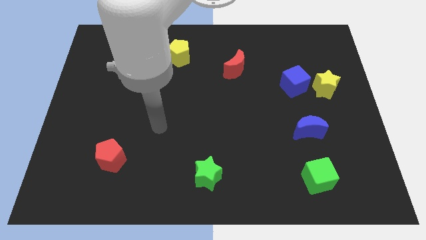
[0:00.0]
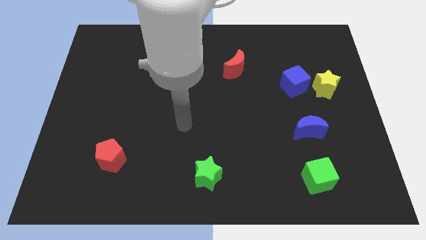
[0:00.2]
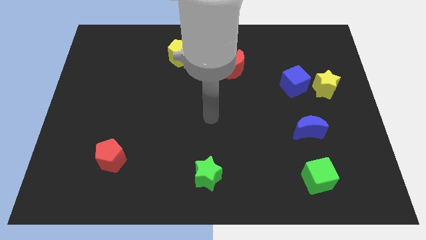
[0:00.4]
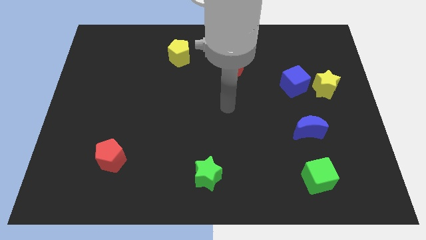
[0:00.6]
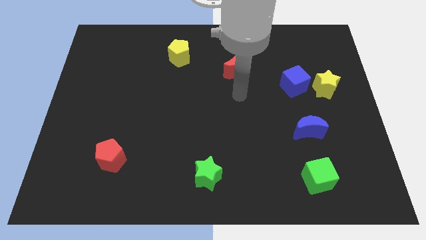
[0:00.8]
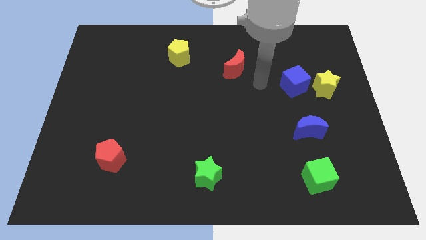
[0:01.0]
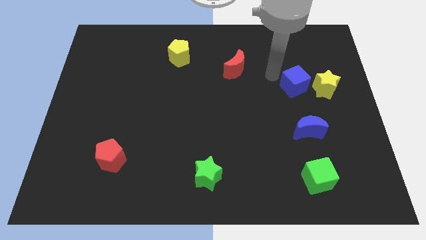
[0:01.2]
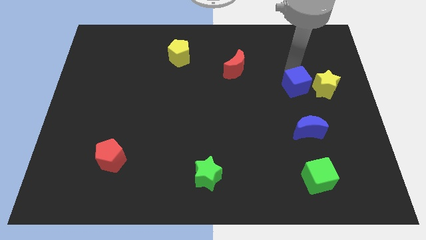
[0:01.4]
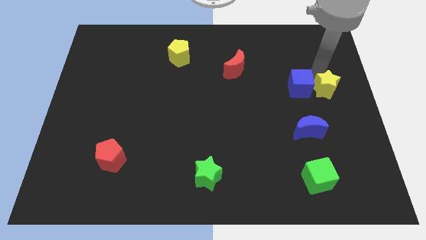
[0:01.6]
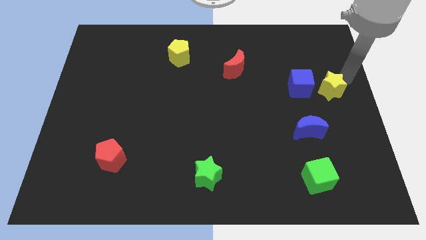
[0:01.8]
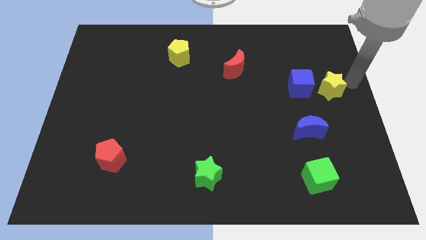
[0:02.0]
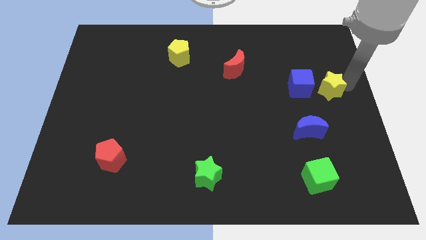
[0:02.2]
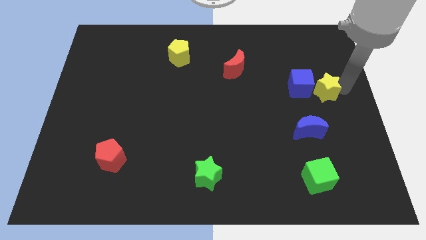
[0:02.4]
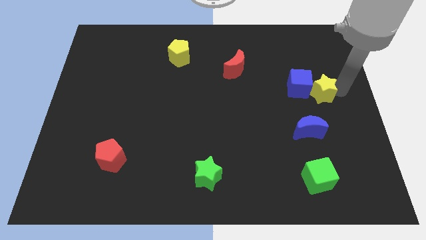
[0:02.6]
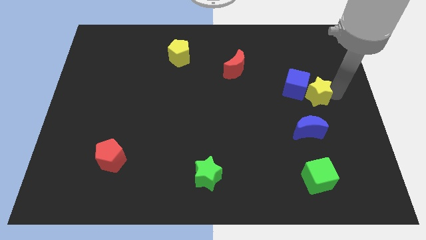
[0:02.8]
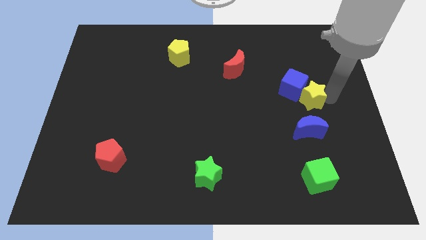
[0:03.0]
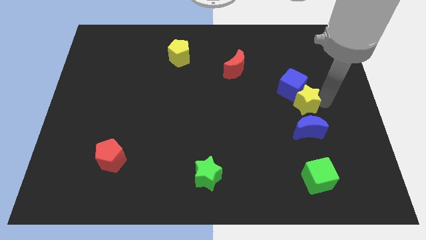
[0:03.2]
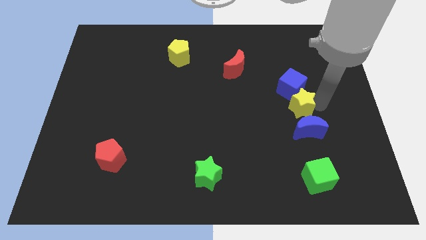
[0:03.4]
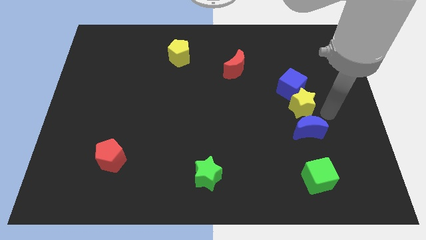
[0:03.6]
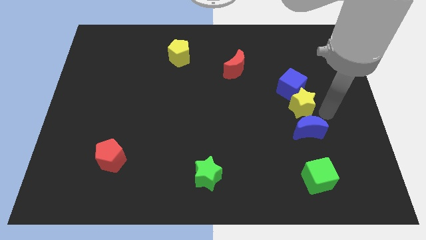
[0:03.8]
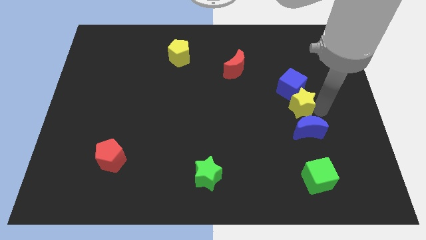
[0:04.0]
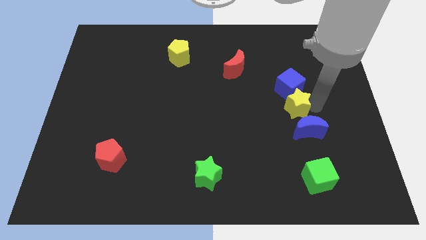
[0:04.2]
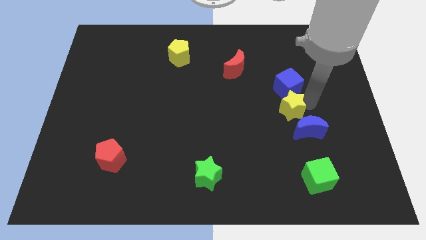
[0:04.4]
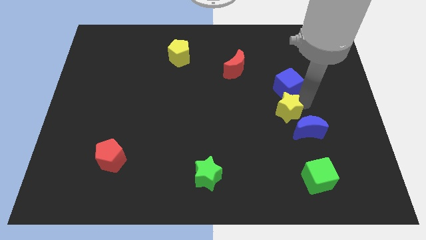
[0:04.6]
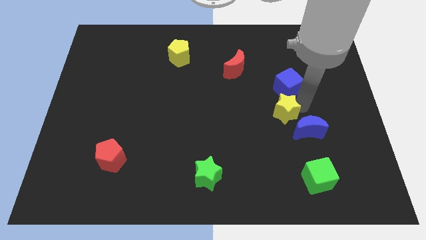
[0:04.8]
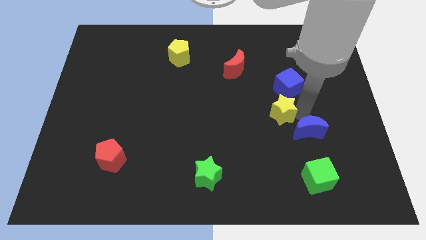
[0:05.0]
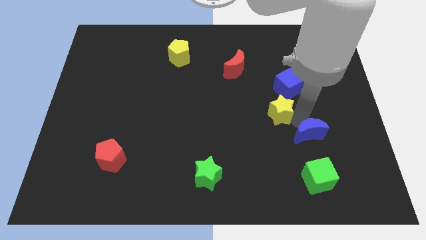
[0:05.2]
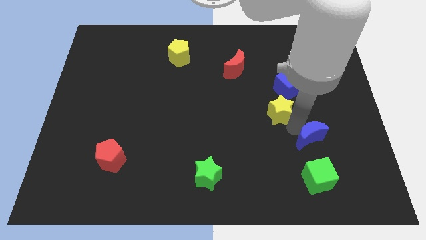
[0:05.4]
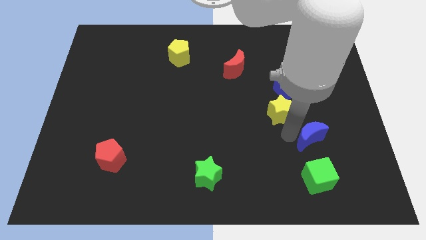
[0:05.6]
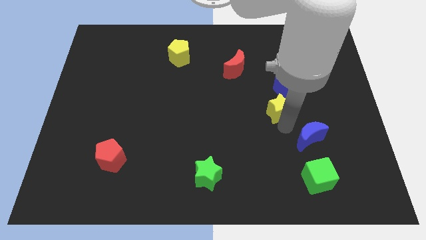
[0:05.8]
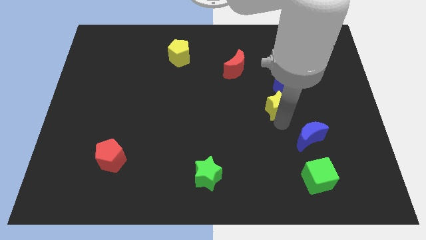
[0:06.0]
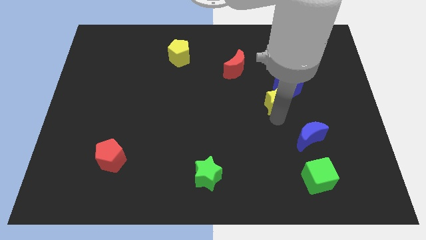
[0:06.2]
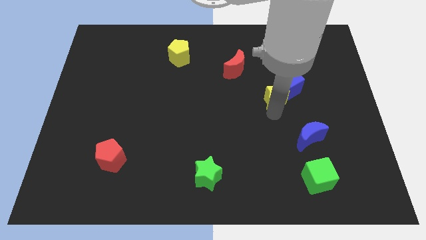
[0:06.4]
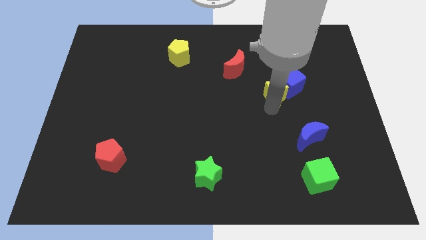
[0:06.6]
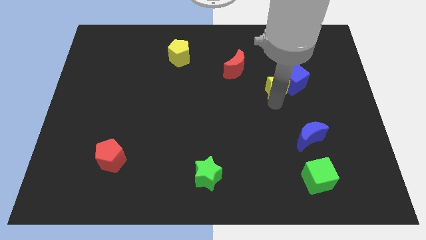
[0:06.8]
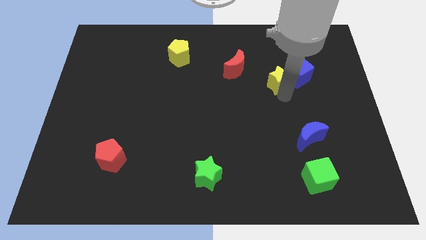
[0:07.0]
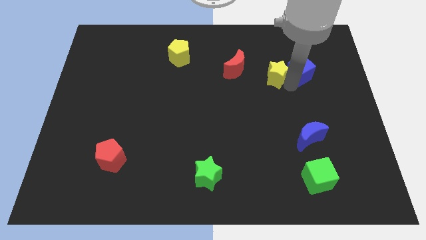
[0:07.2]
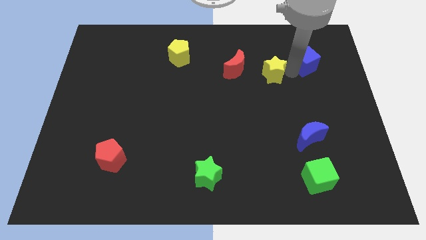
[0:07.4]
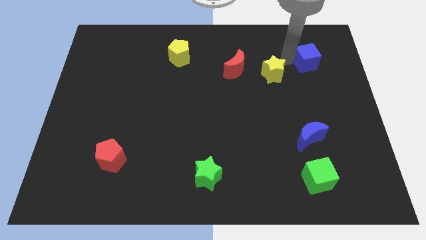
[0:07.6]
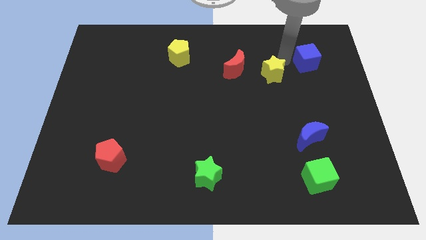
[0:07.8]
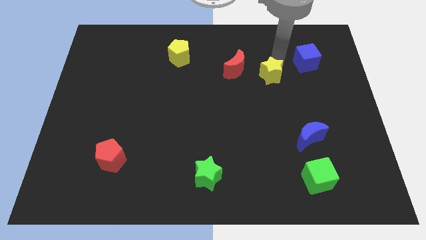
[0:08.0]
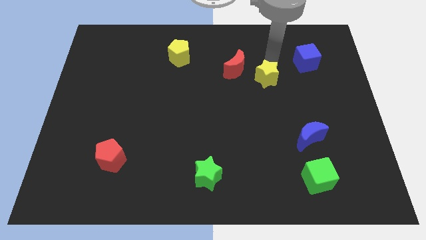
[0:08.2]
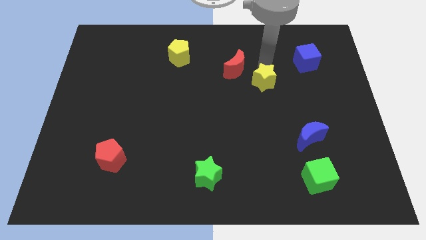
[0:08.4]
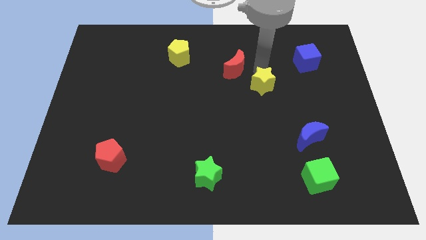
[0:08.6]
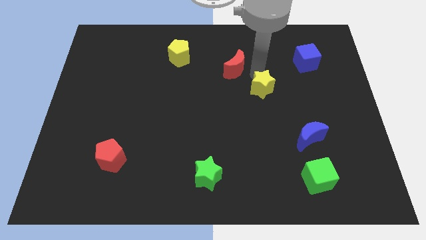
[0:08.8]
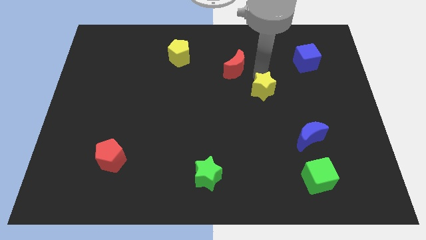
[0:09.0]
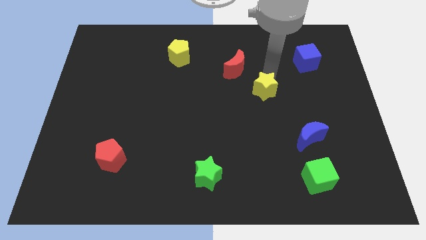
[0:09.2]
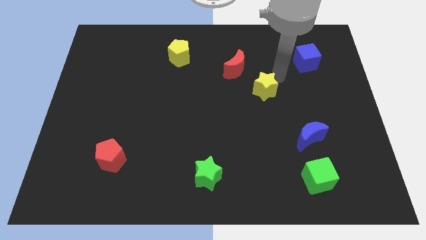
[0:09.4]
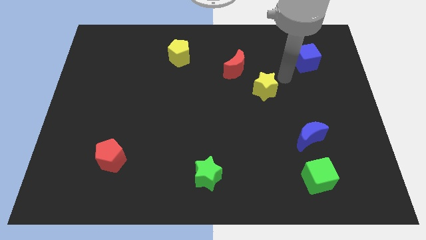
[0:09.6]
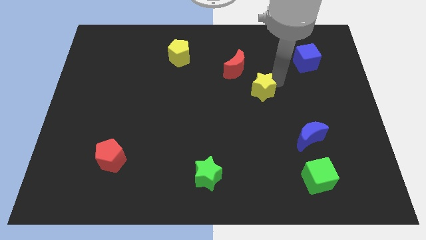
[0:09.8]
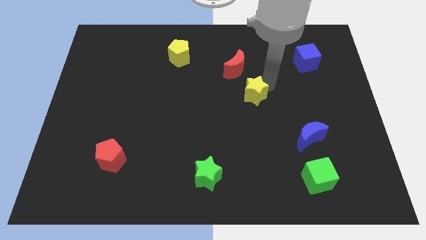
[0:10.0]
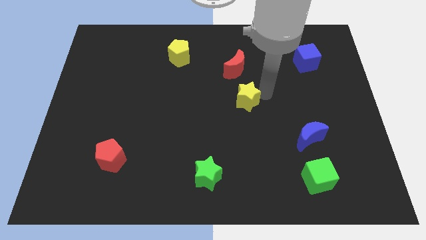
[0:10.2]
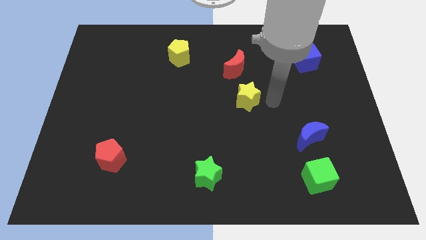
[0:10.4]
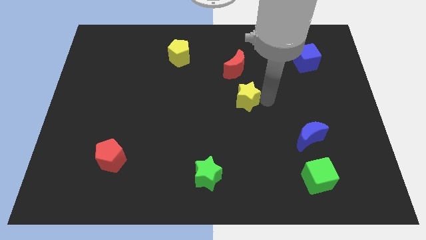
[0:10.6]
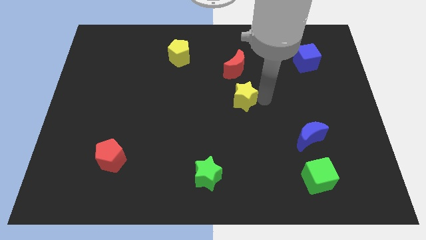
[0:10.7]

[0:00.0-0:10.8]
push the yellow star to the left

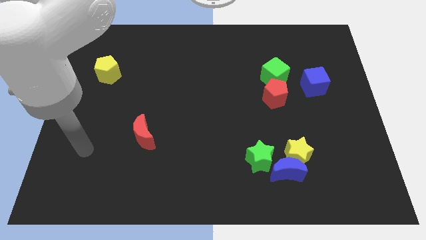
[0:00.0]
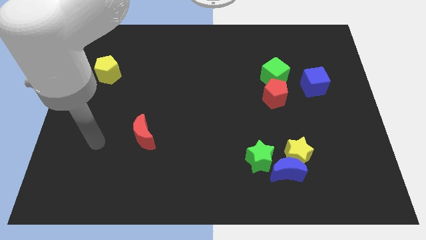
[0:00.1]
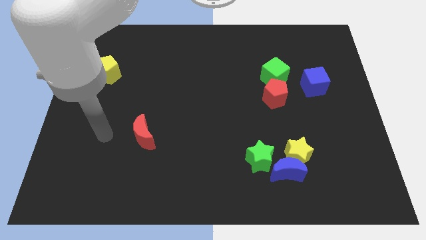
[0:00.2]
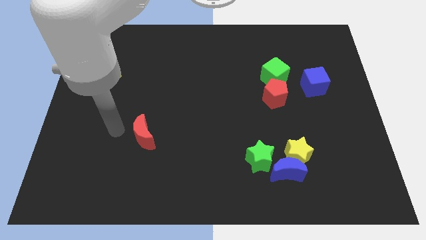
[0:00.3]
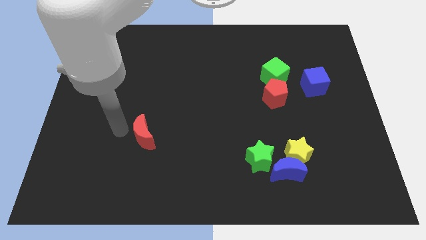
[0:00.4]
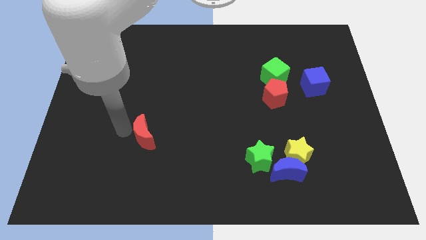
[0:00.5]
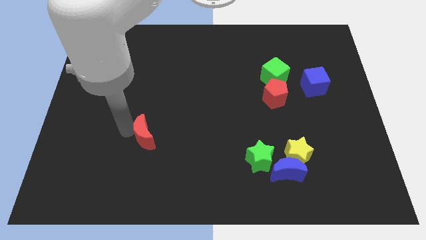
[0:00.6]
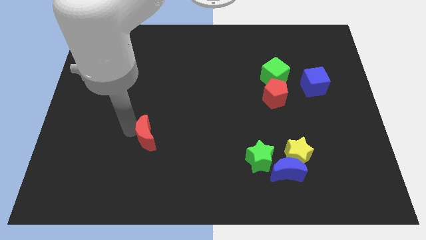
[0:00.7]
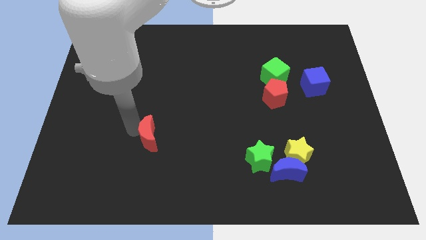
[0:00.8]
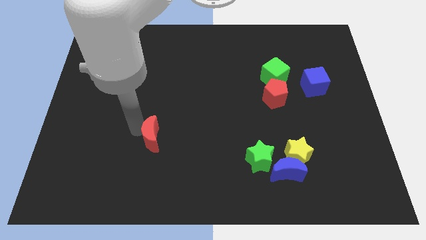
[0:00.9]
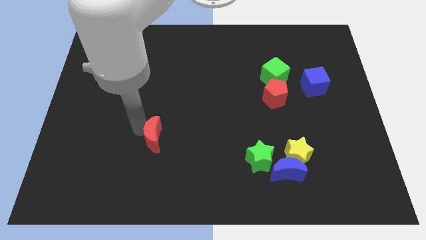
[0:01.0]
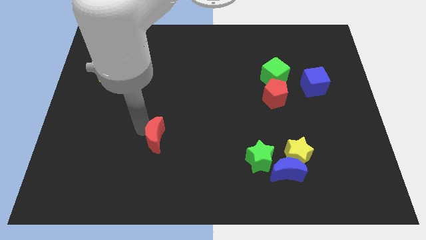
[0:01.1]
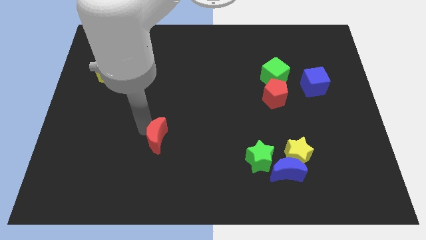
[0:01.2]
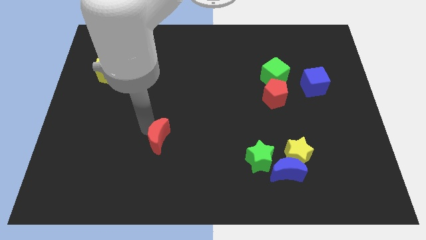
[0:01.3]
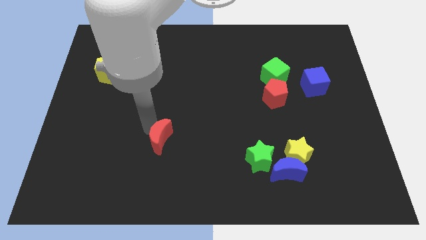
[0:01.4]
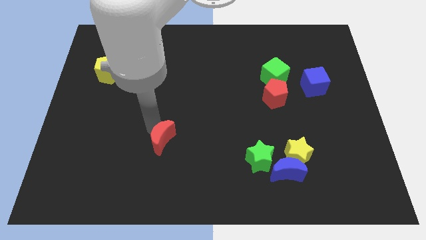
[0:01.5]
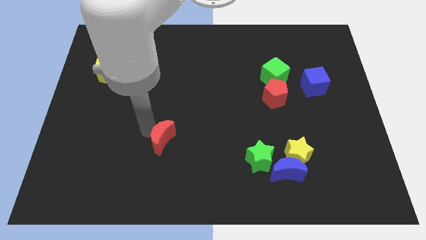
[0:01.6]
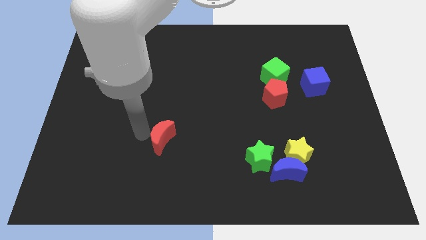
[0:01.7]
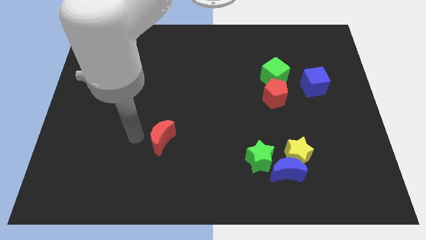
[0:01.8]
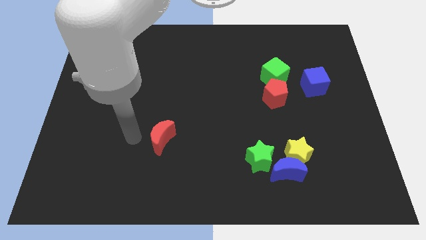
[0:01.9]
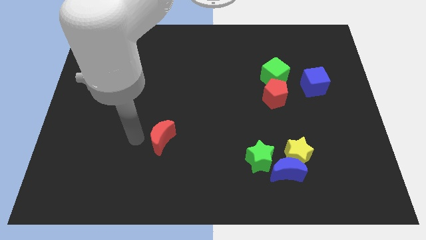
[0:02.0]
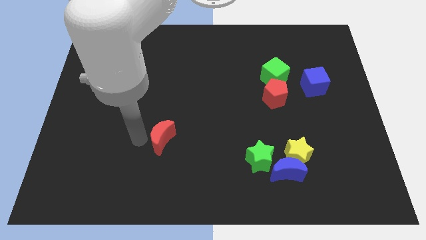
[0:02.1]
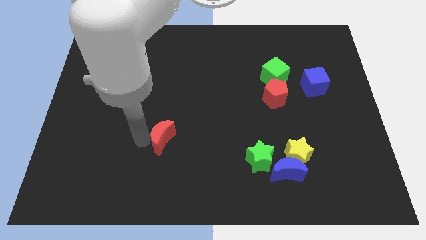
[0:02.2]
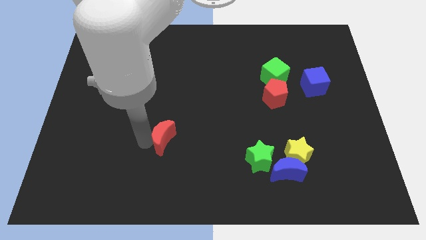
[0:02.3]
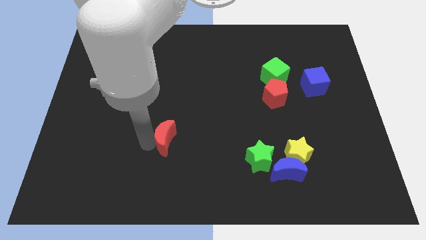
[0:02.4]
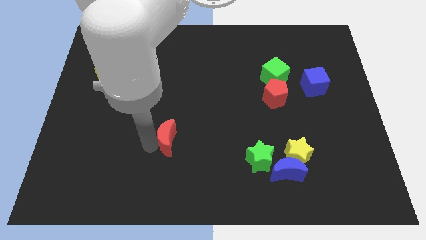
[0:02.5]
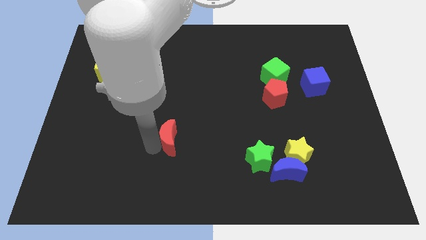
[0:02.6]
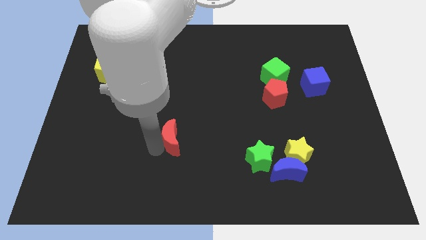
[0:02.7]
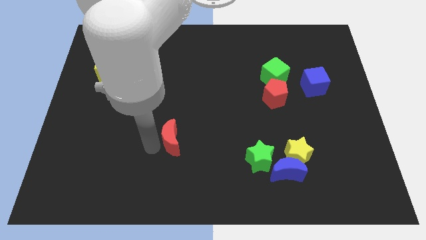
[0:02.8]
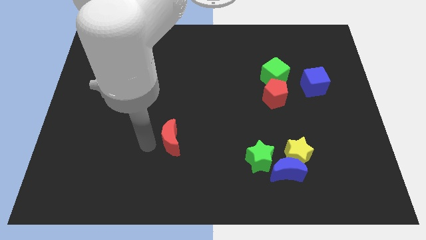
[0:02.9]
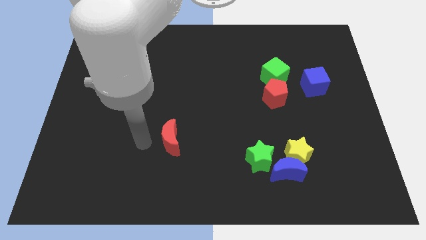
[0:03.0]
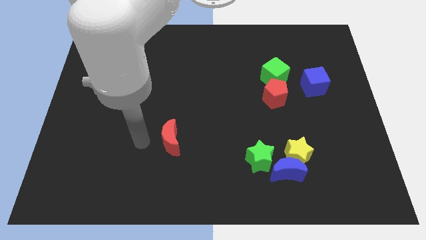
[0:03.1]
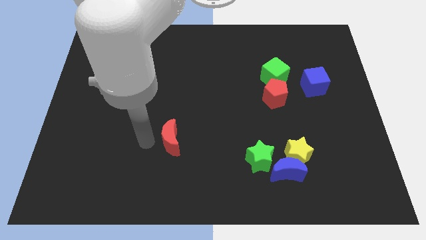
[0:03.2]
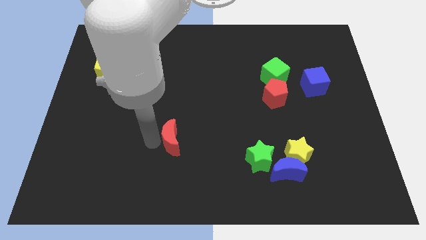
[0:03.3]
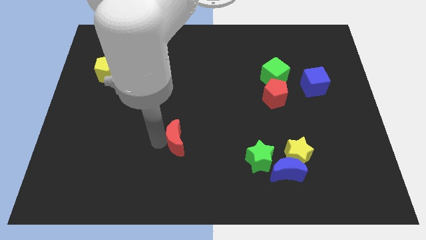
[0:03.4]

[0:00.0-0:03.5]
slide the red moon to the right slightly
